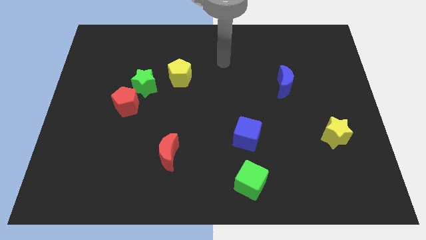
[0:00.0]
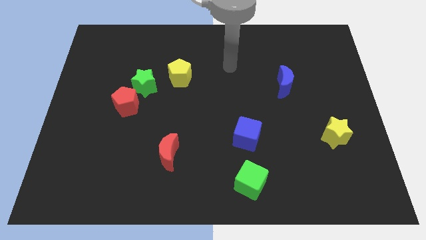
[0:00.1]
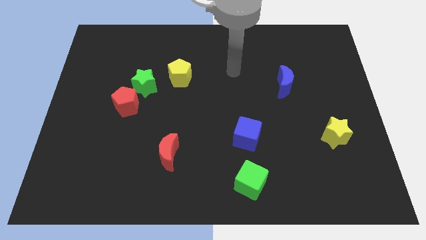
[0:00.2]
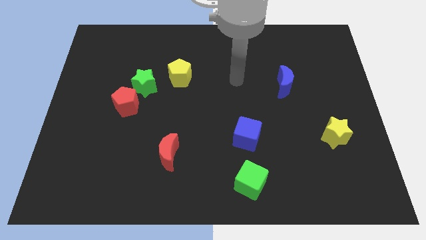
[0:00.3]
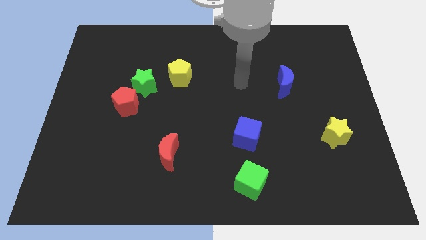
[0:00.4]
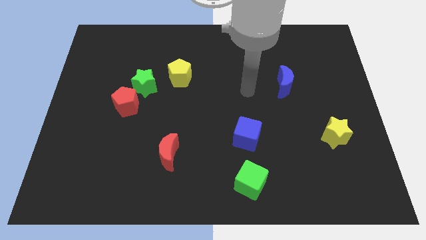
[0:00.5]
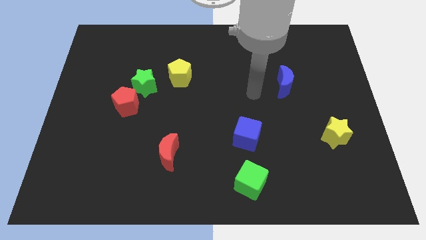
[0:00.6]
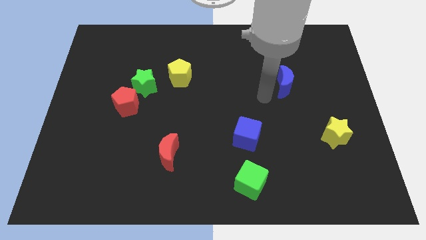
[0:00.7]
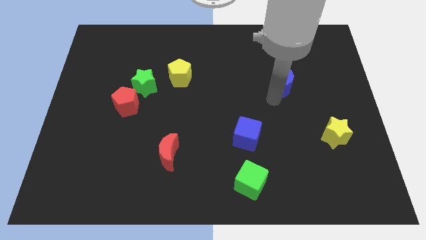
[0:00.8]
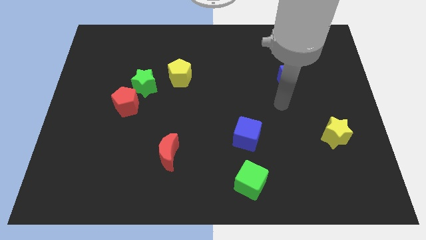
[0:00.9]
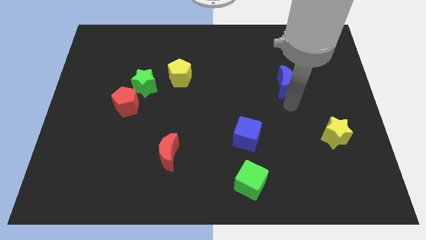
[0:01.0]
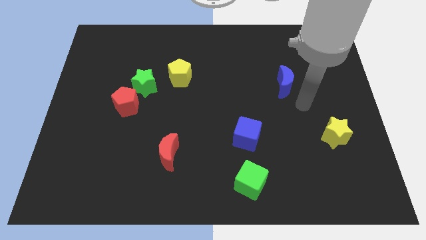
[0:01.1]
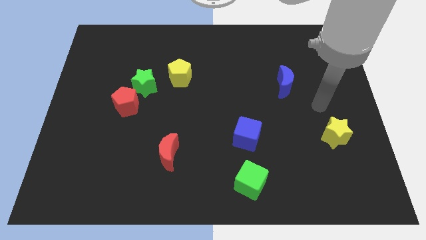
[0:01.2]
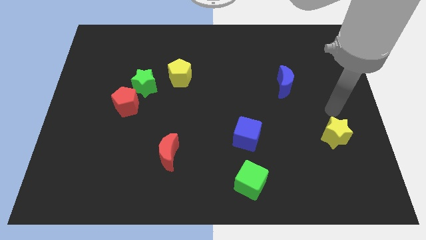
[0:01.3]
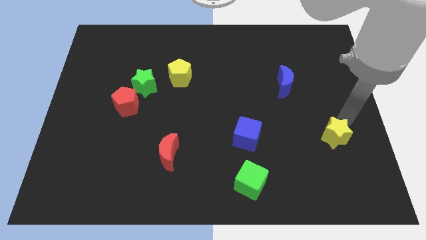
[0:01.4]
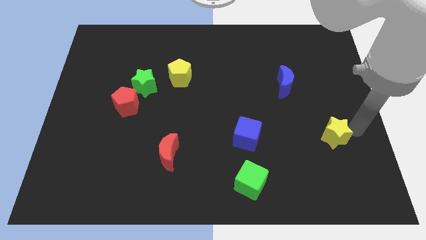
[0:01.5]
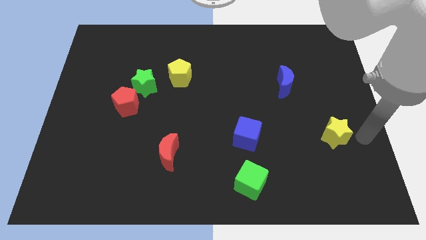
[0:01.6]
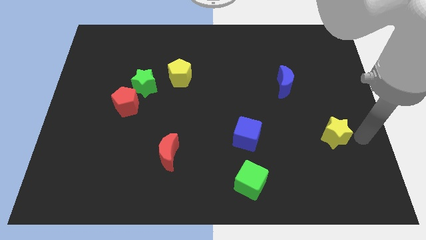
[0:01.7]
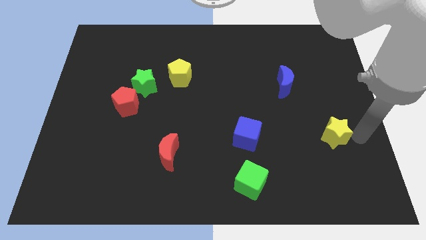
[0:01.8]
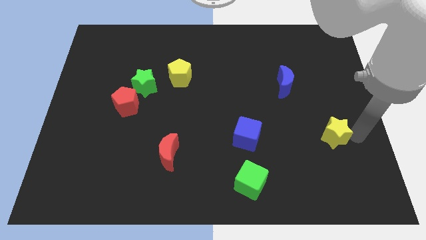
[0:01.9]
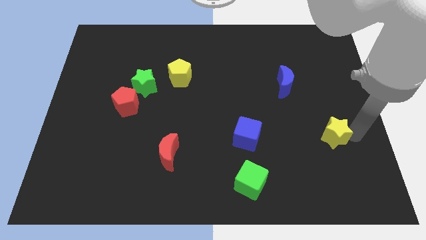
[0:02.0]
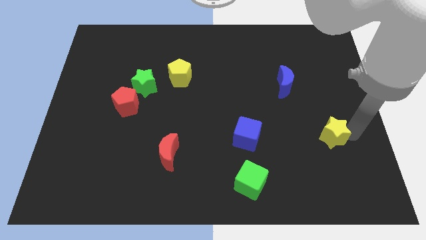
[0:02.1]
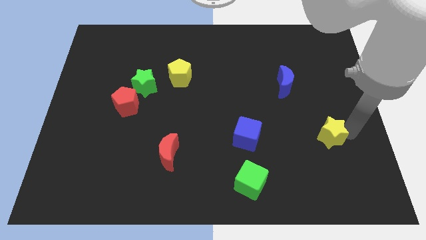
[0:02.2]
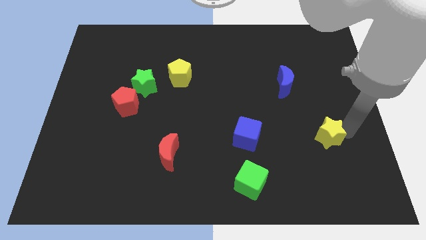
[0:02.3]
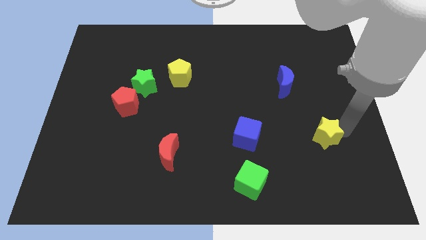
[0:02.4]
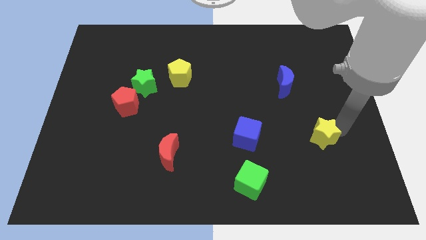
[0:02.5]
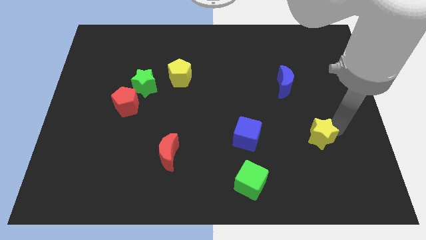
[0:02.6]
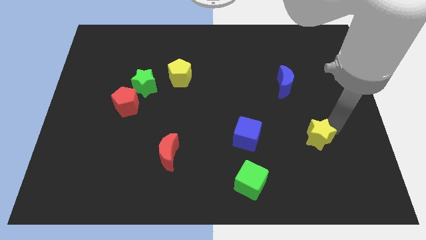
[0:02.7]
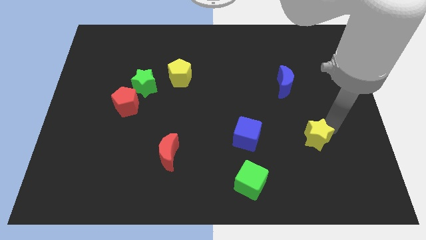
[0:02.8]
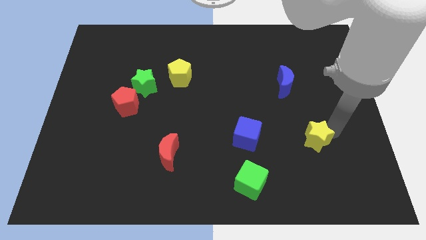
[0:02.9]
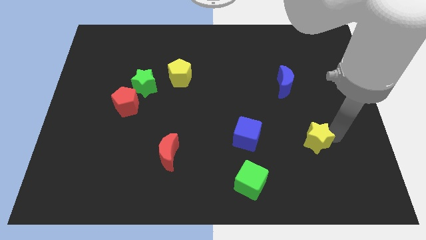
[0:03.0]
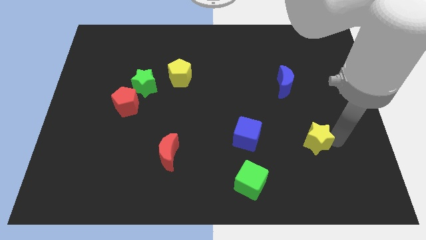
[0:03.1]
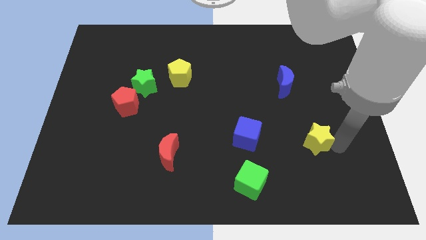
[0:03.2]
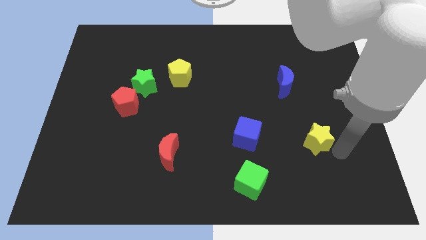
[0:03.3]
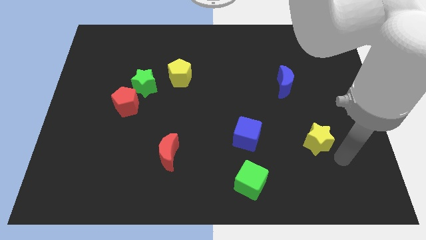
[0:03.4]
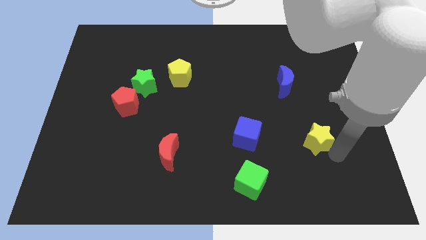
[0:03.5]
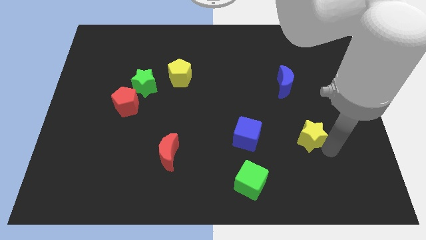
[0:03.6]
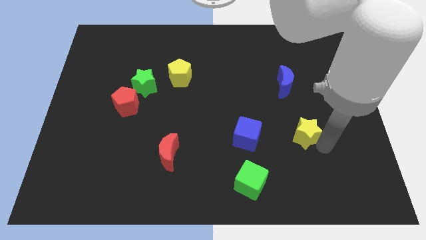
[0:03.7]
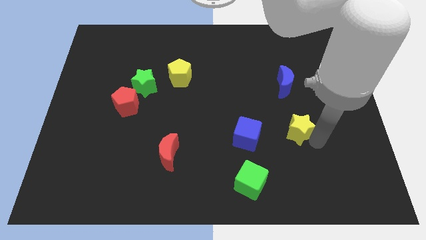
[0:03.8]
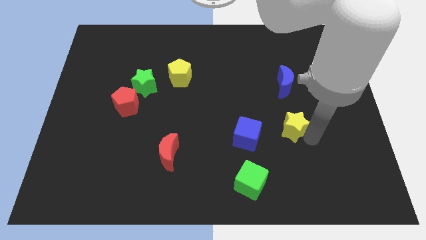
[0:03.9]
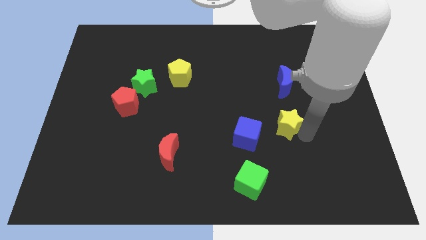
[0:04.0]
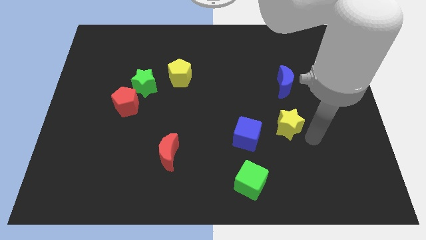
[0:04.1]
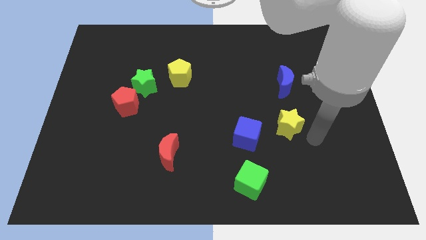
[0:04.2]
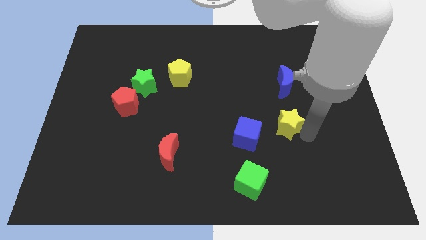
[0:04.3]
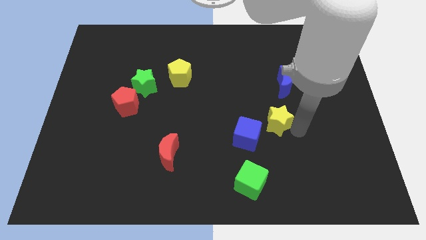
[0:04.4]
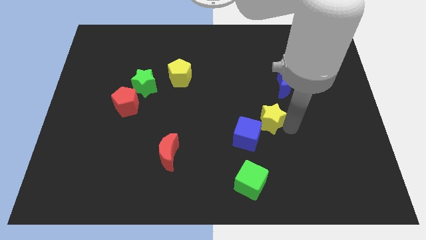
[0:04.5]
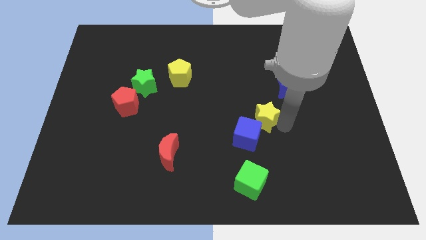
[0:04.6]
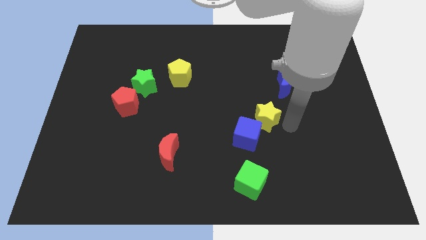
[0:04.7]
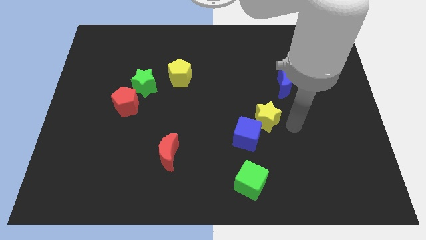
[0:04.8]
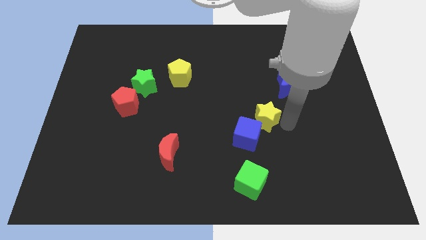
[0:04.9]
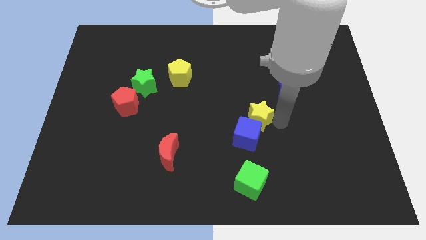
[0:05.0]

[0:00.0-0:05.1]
put the yellow star to the center of the board
